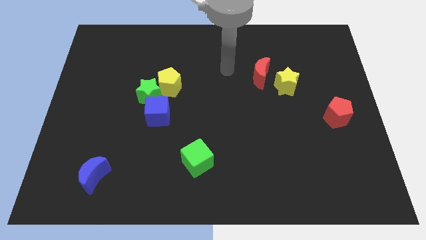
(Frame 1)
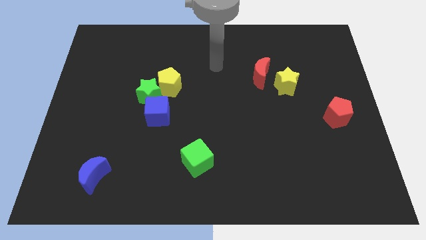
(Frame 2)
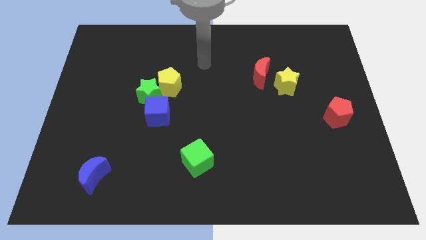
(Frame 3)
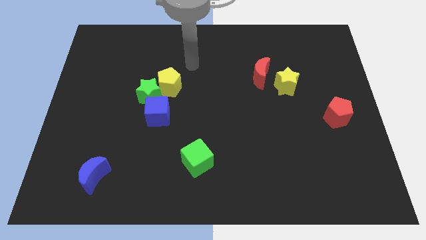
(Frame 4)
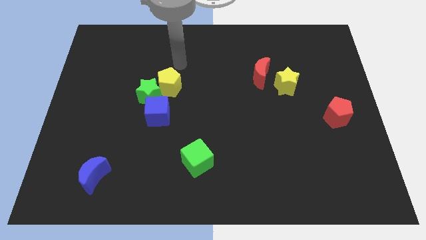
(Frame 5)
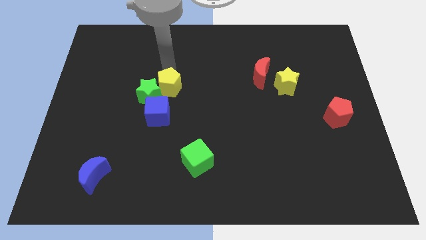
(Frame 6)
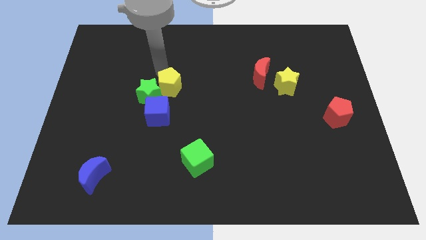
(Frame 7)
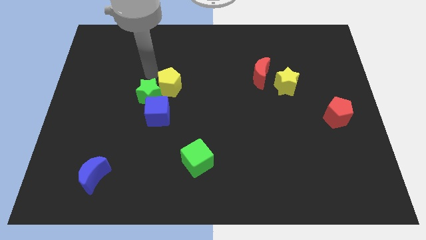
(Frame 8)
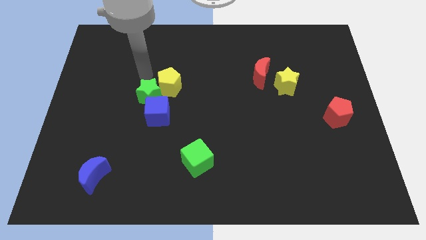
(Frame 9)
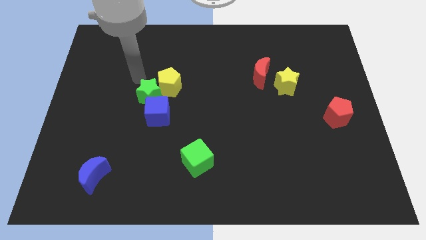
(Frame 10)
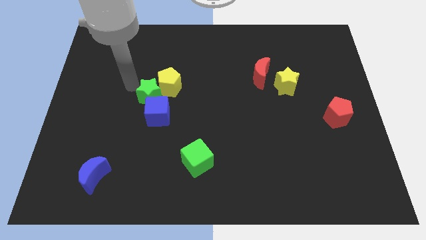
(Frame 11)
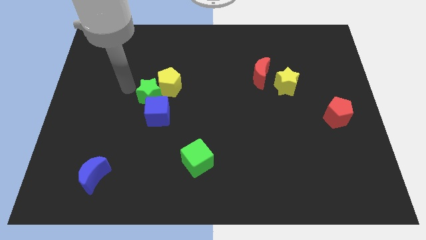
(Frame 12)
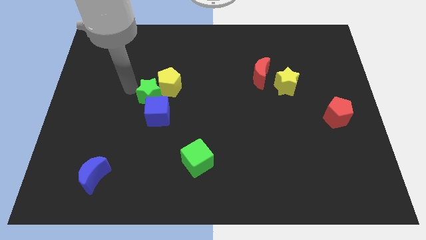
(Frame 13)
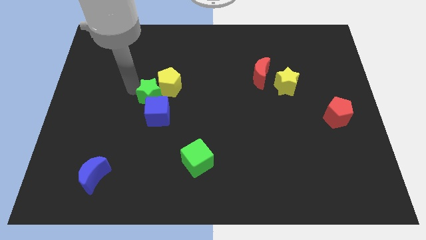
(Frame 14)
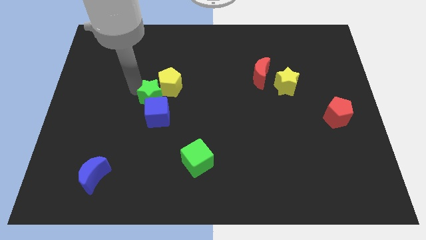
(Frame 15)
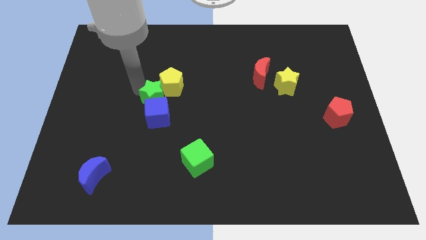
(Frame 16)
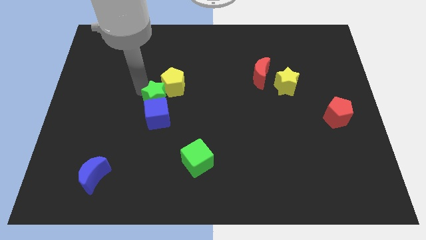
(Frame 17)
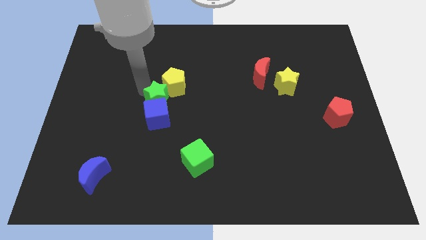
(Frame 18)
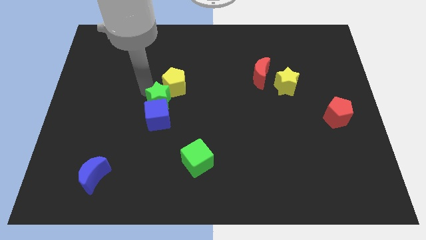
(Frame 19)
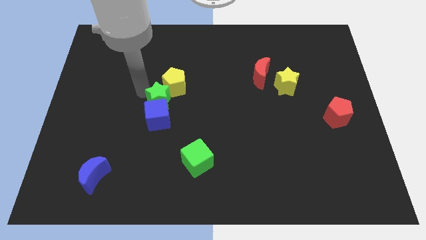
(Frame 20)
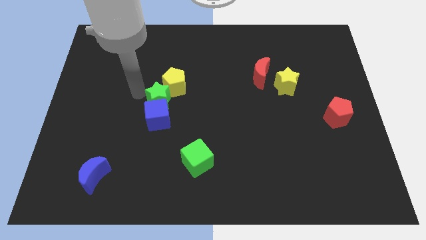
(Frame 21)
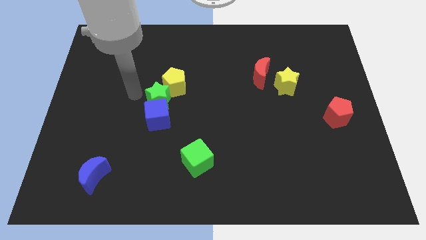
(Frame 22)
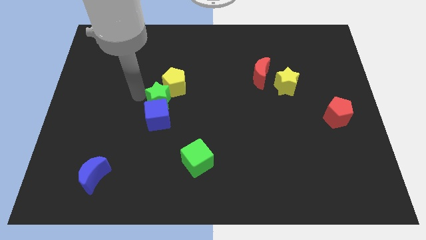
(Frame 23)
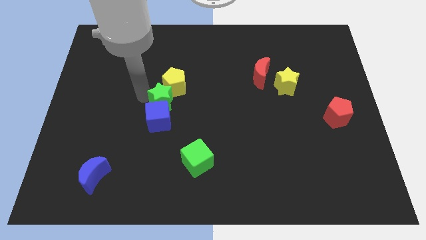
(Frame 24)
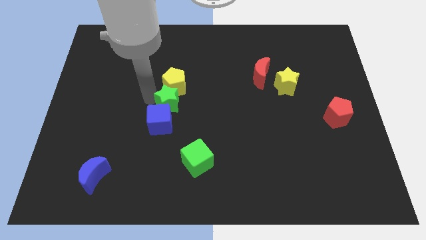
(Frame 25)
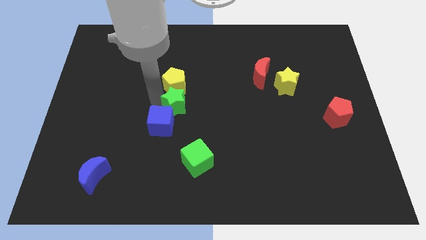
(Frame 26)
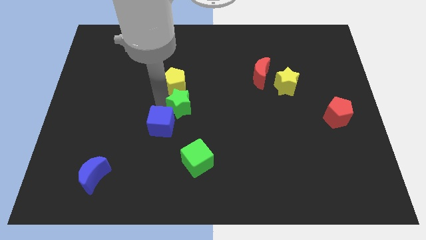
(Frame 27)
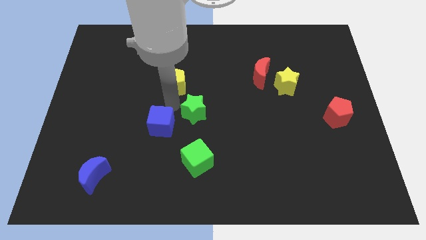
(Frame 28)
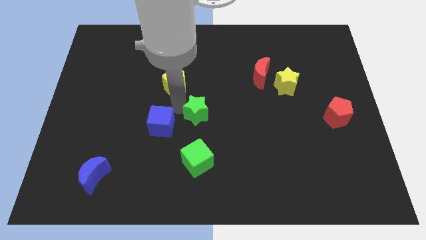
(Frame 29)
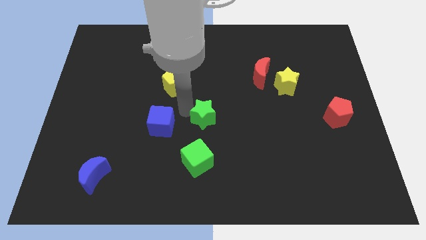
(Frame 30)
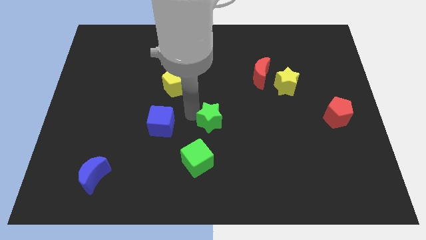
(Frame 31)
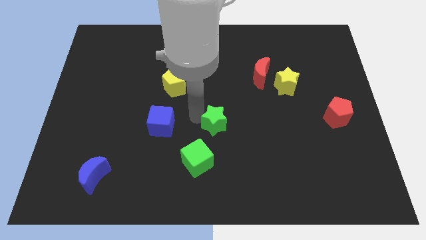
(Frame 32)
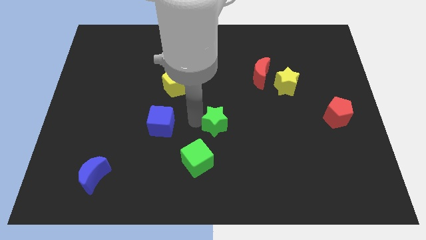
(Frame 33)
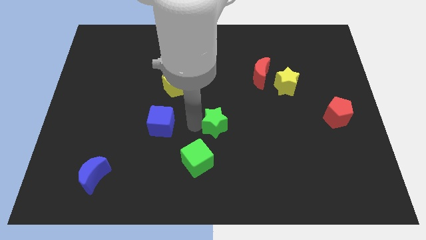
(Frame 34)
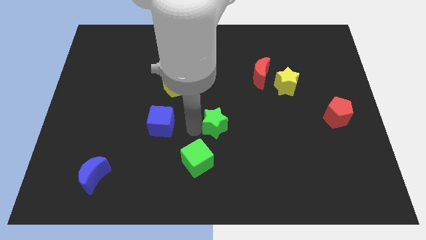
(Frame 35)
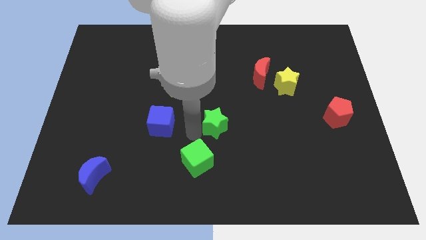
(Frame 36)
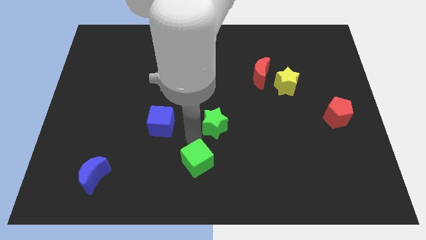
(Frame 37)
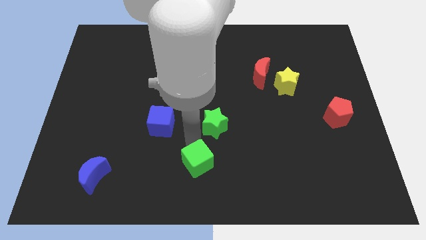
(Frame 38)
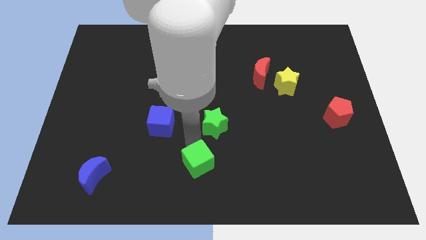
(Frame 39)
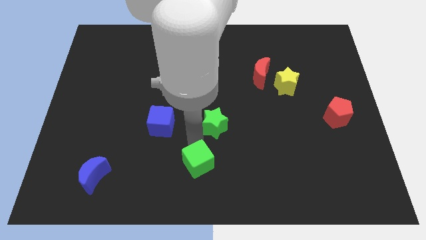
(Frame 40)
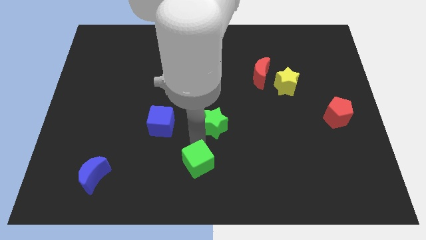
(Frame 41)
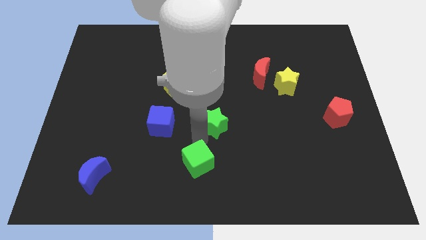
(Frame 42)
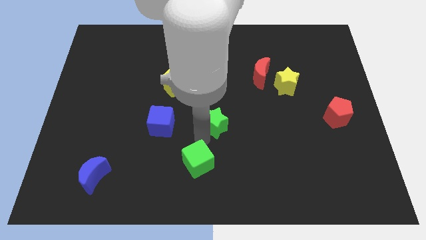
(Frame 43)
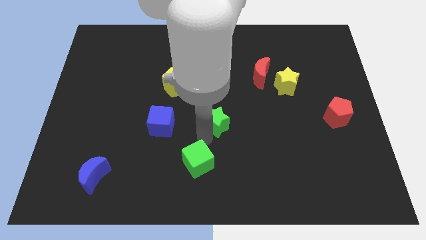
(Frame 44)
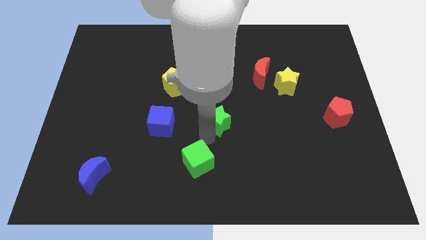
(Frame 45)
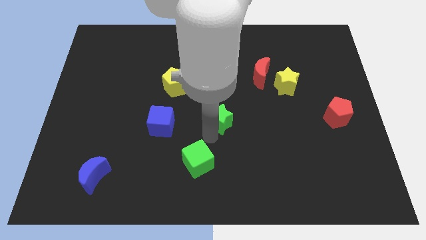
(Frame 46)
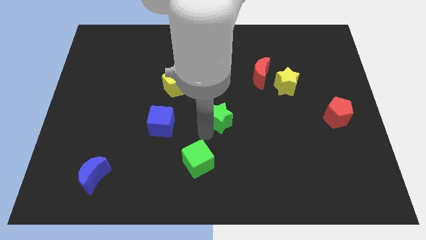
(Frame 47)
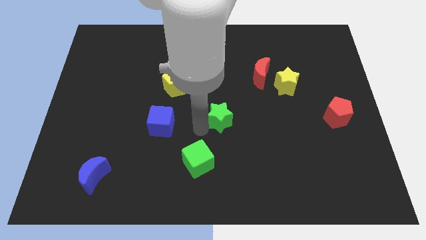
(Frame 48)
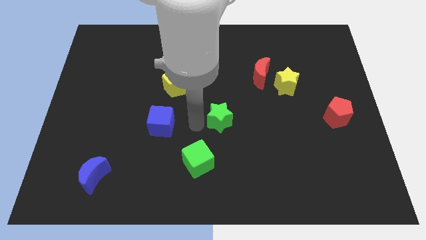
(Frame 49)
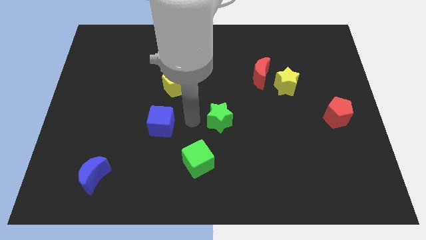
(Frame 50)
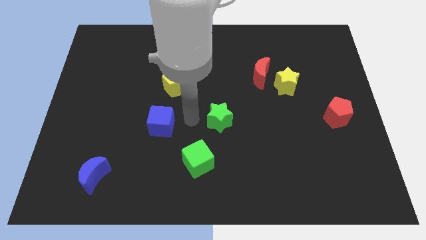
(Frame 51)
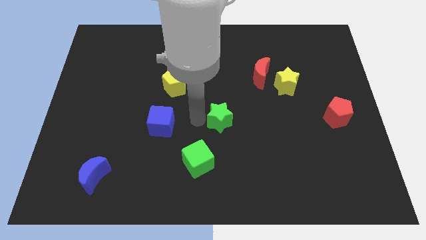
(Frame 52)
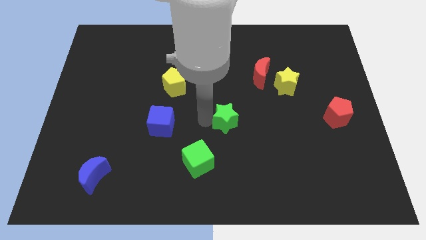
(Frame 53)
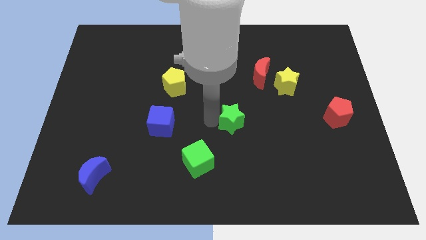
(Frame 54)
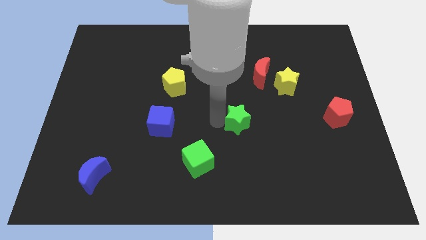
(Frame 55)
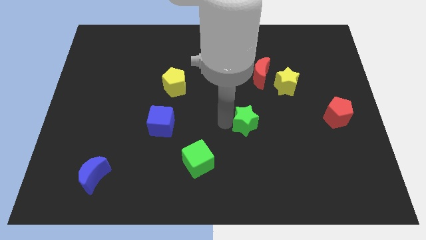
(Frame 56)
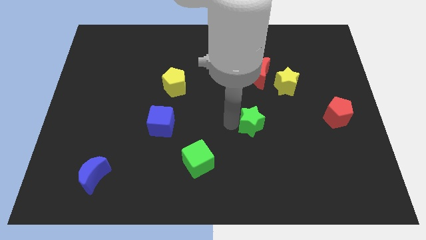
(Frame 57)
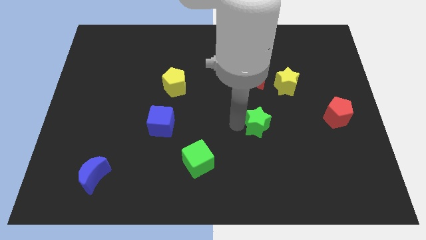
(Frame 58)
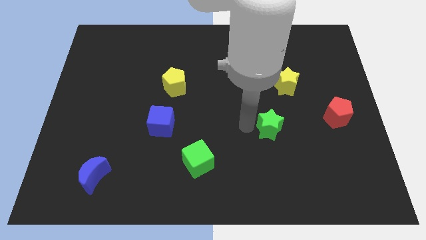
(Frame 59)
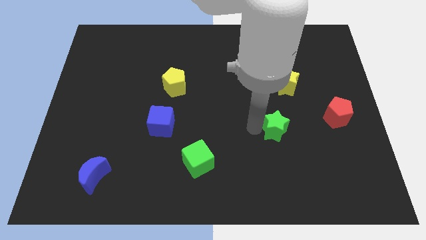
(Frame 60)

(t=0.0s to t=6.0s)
put the green star below the yellow star

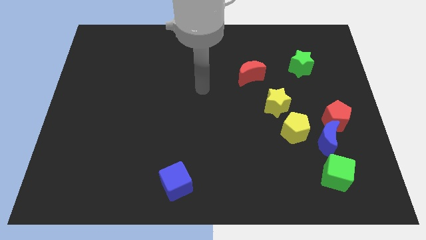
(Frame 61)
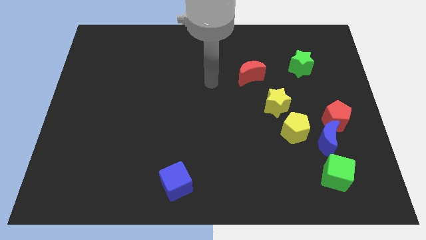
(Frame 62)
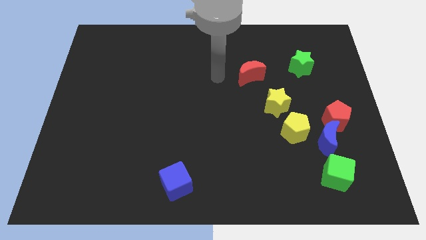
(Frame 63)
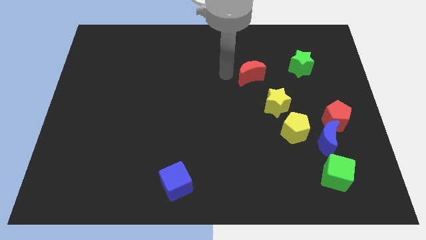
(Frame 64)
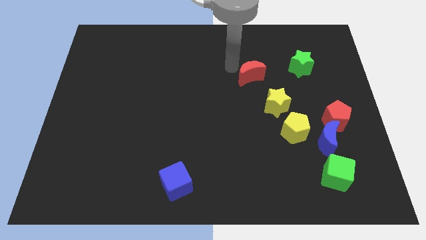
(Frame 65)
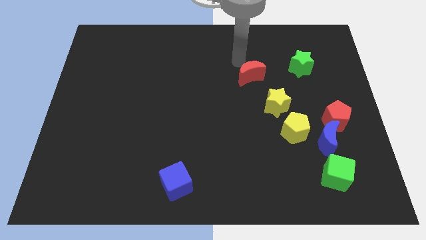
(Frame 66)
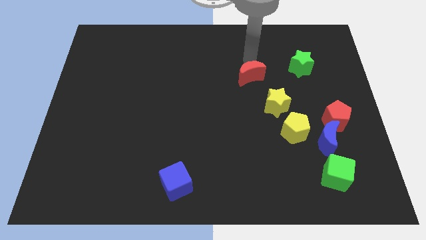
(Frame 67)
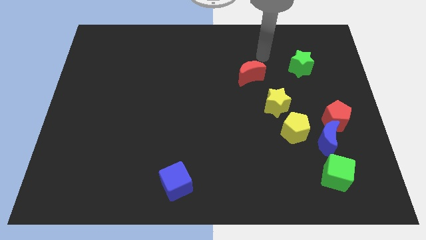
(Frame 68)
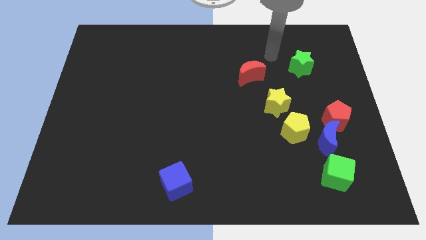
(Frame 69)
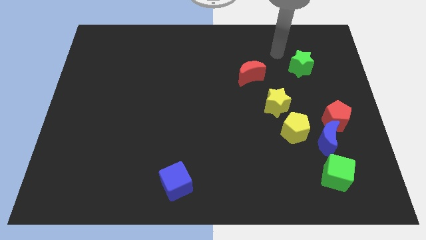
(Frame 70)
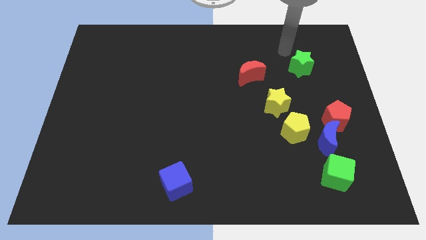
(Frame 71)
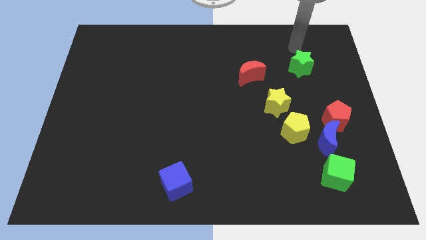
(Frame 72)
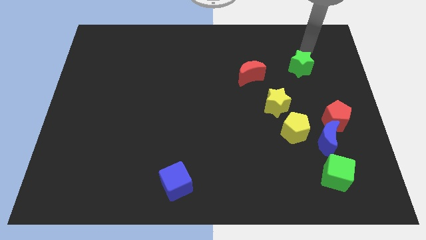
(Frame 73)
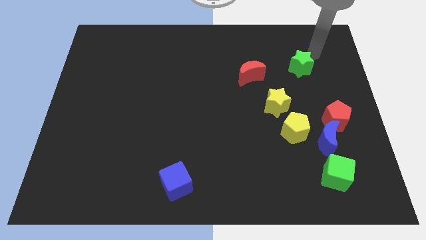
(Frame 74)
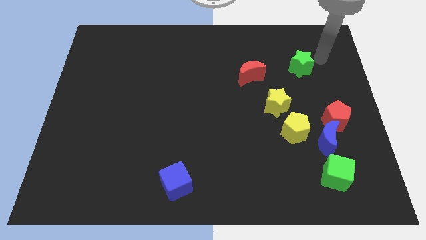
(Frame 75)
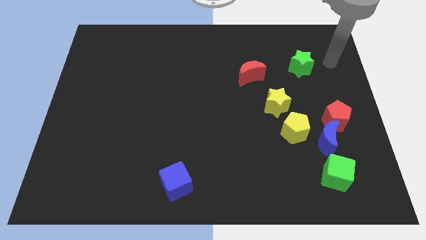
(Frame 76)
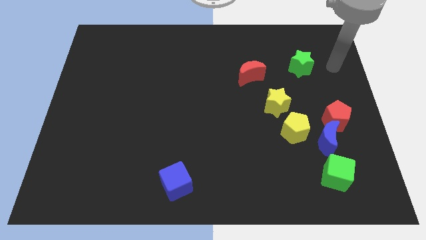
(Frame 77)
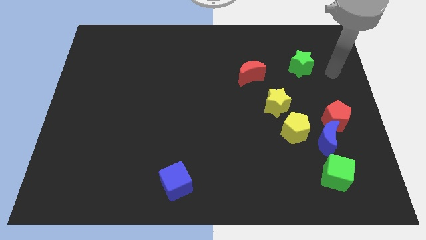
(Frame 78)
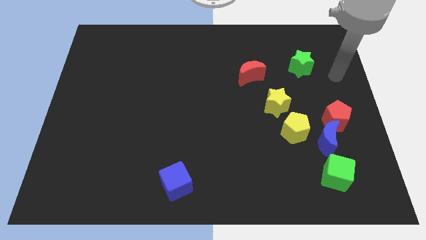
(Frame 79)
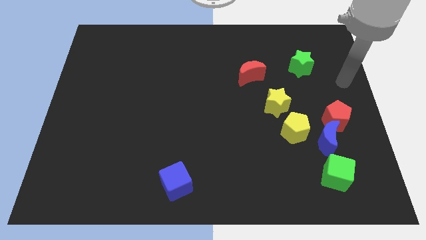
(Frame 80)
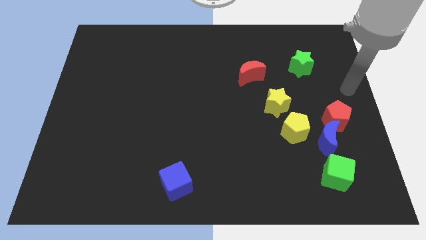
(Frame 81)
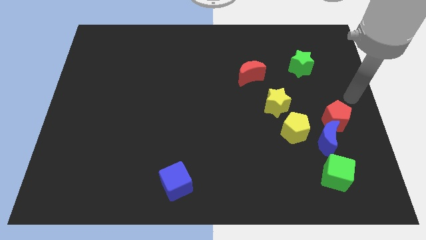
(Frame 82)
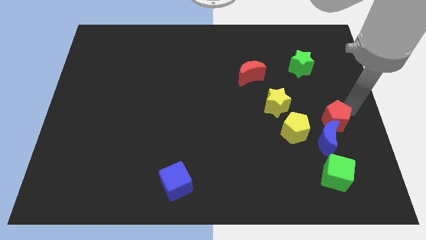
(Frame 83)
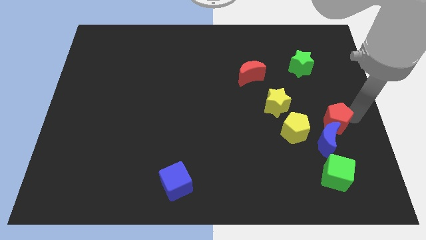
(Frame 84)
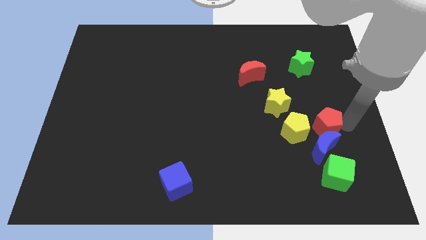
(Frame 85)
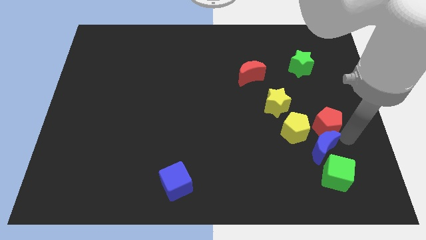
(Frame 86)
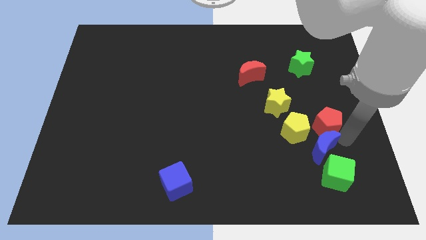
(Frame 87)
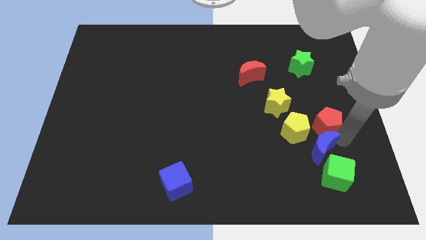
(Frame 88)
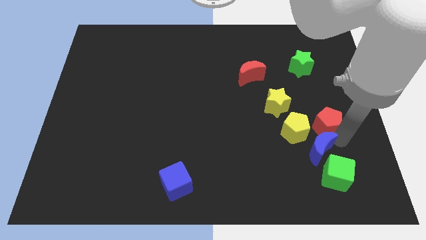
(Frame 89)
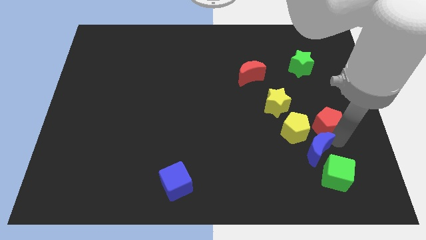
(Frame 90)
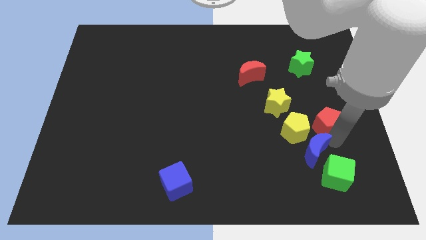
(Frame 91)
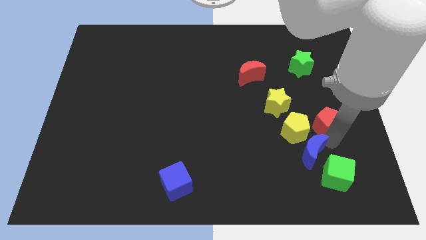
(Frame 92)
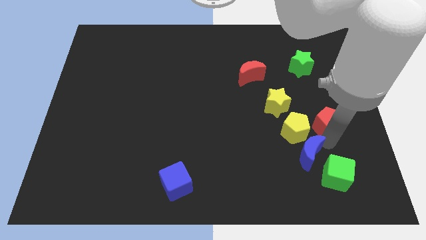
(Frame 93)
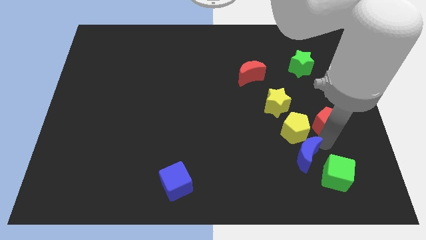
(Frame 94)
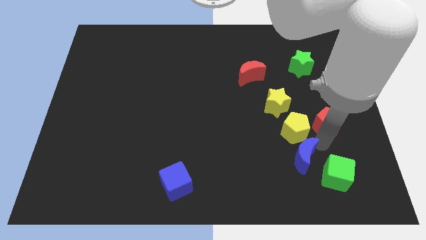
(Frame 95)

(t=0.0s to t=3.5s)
put the blue moon below the yellow star
